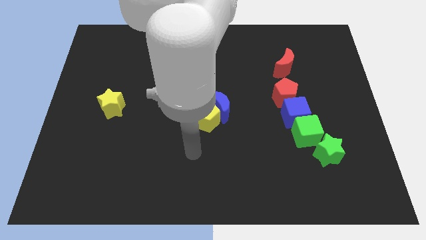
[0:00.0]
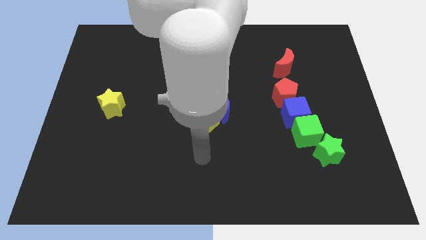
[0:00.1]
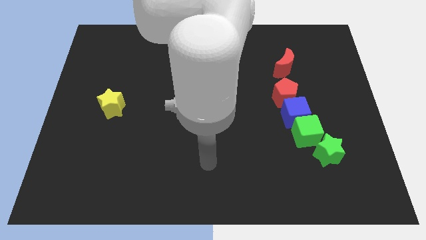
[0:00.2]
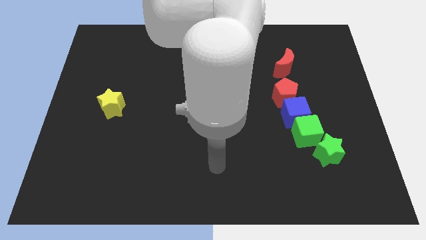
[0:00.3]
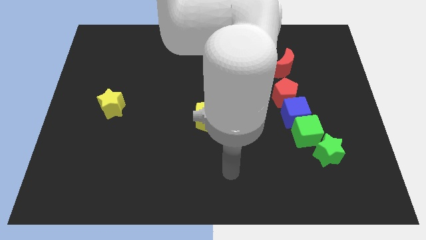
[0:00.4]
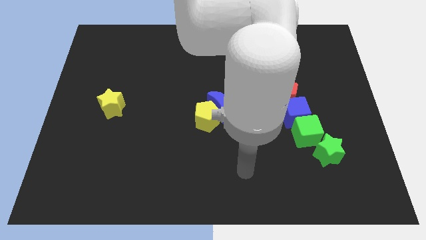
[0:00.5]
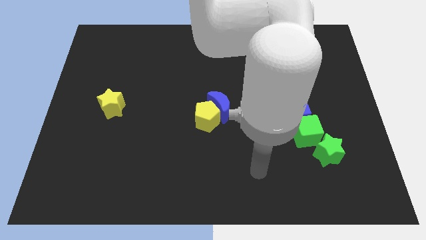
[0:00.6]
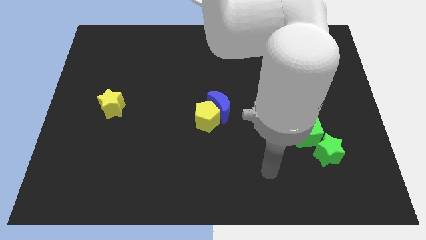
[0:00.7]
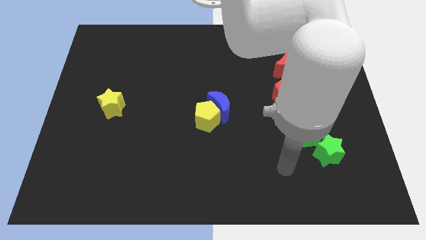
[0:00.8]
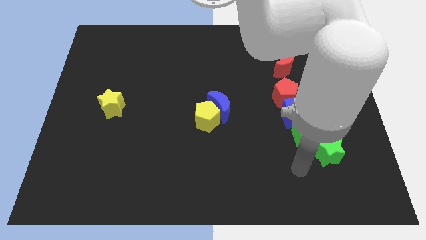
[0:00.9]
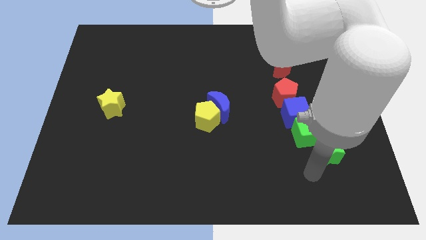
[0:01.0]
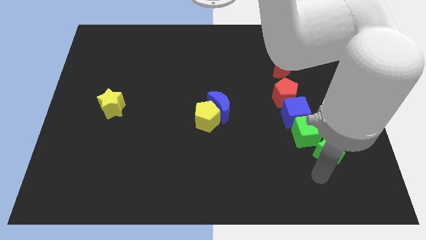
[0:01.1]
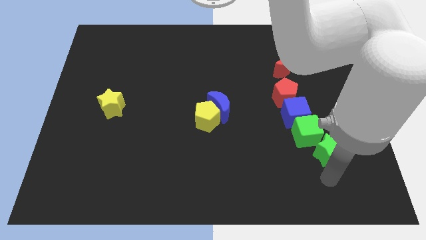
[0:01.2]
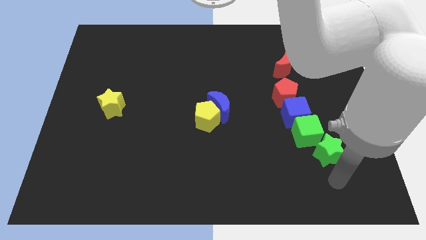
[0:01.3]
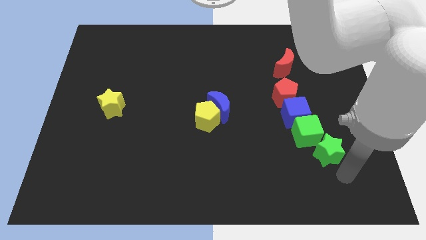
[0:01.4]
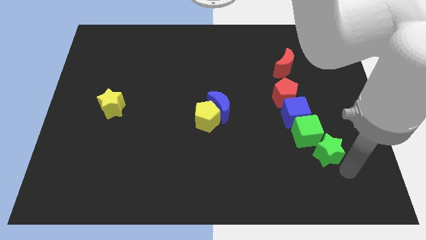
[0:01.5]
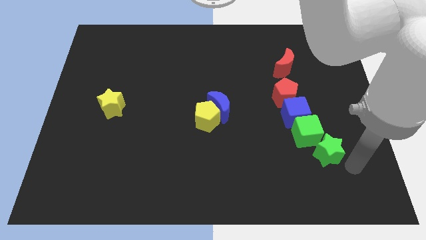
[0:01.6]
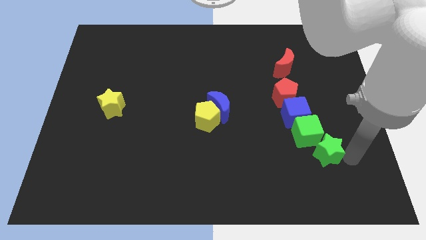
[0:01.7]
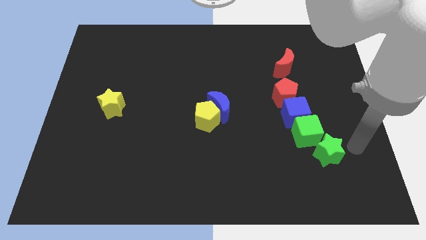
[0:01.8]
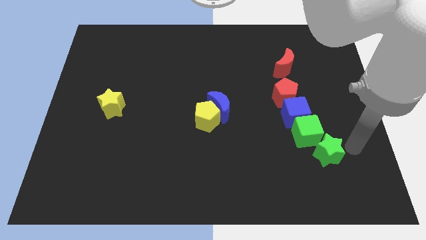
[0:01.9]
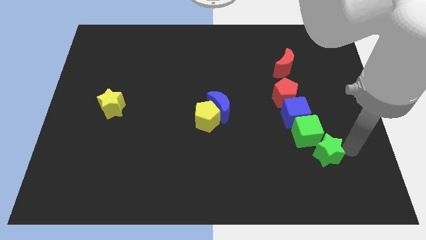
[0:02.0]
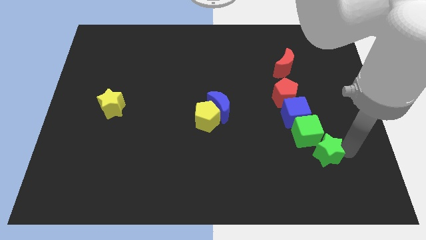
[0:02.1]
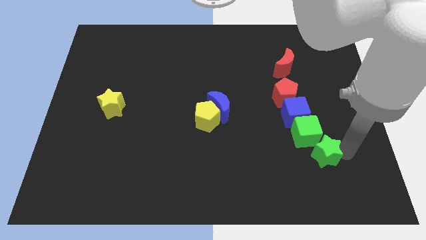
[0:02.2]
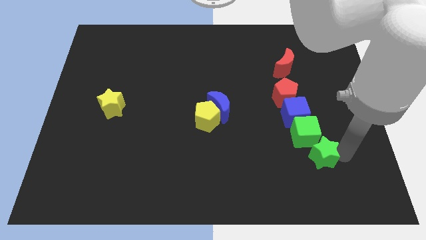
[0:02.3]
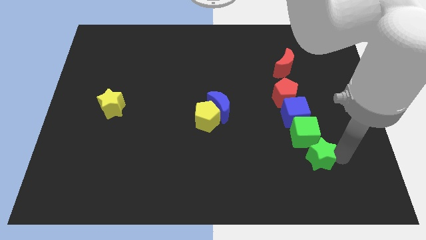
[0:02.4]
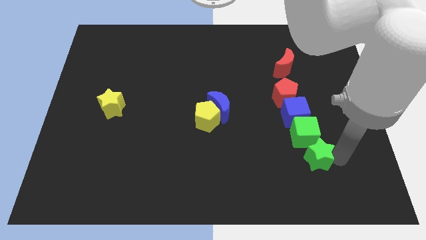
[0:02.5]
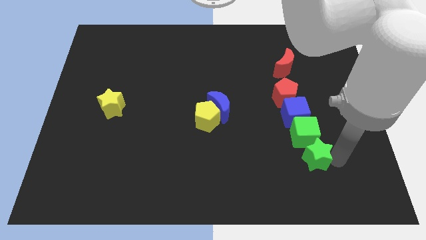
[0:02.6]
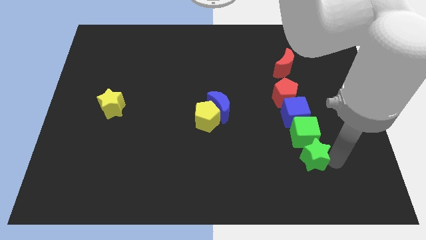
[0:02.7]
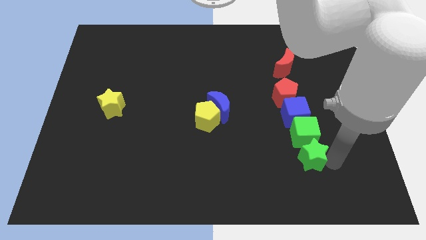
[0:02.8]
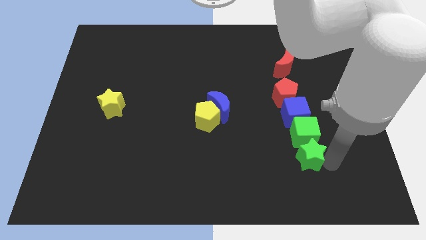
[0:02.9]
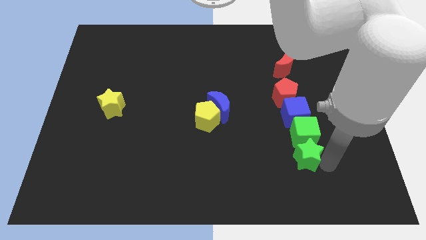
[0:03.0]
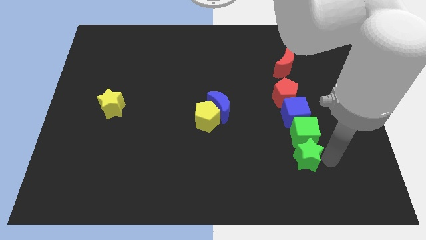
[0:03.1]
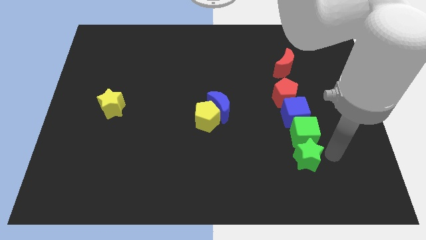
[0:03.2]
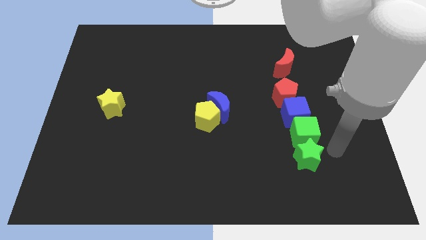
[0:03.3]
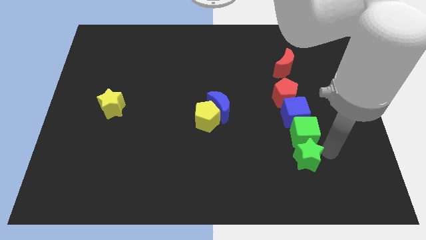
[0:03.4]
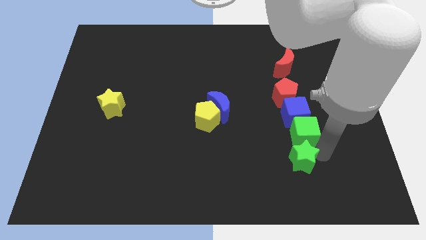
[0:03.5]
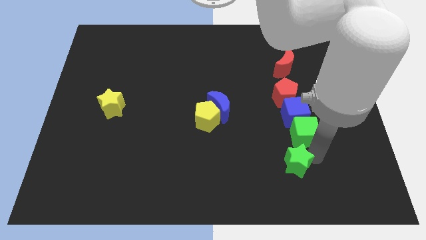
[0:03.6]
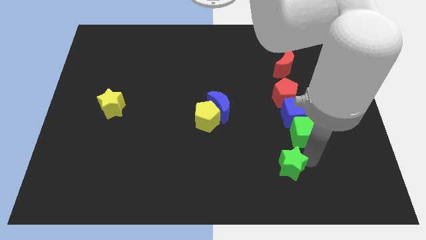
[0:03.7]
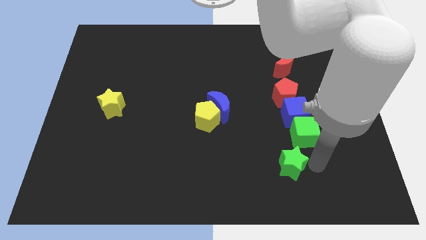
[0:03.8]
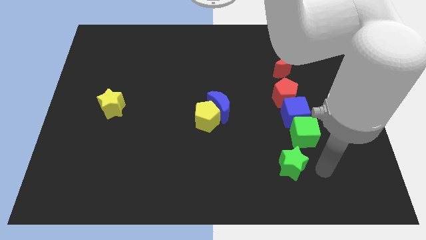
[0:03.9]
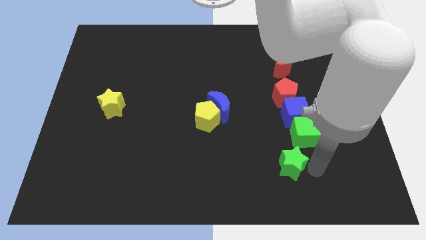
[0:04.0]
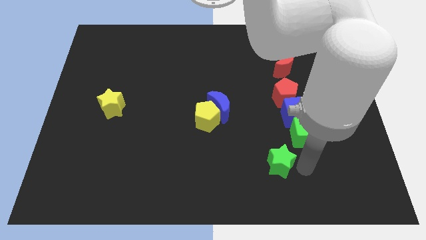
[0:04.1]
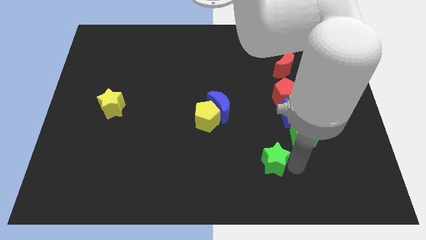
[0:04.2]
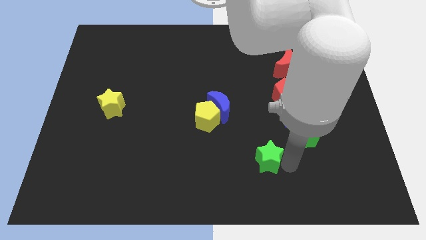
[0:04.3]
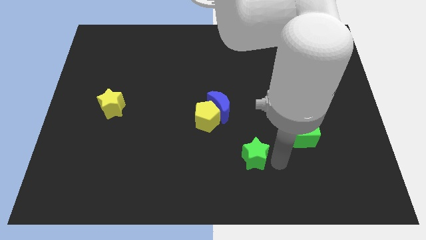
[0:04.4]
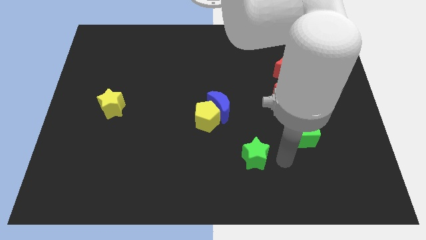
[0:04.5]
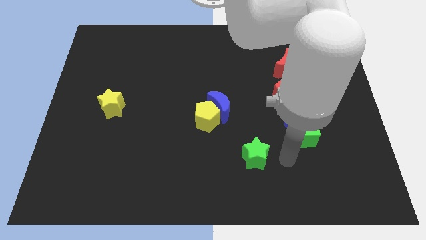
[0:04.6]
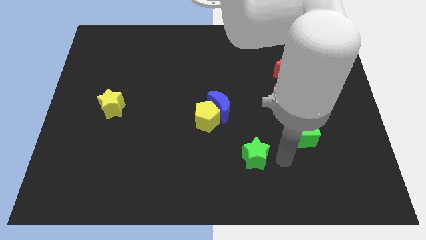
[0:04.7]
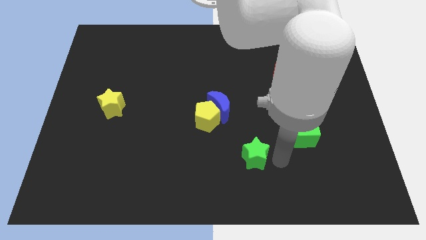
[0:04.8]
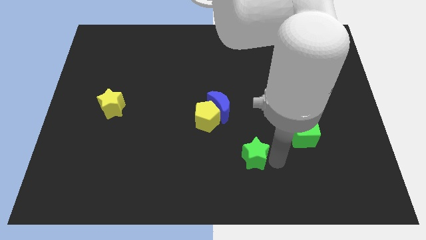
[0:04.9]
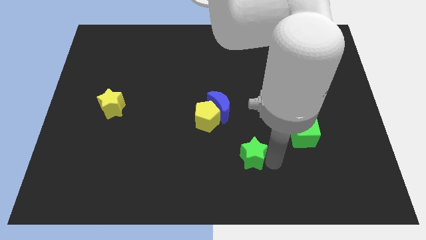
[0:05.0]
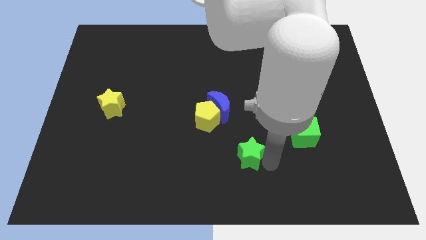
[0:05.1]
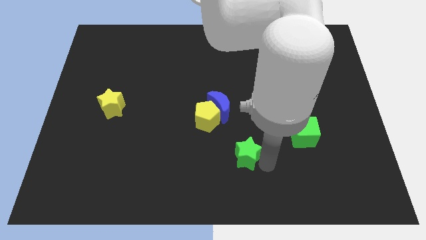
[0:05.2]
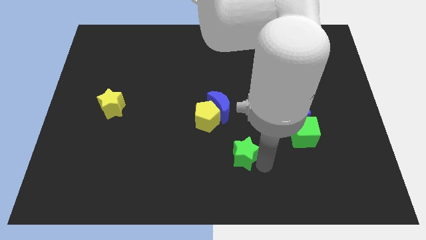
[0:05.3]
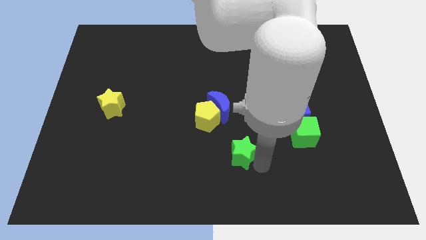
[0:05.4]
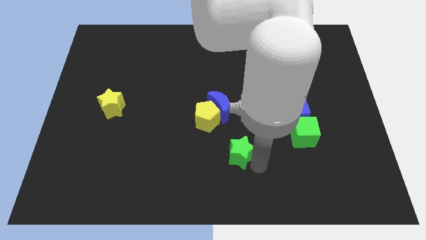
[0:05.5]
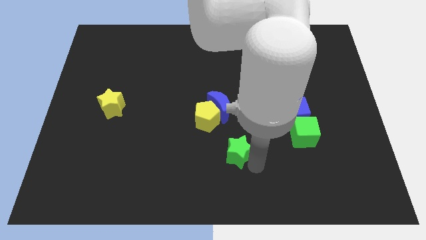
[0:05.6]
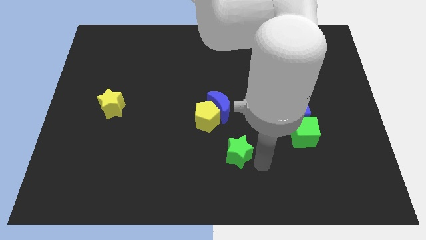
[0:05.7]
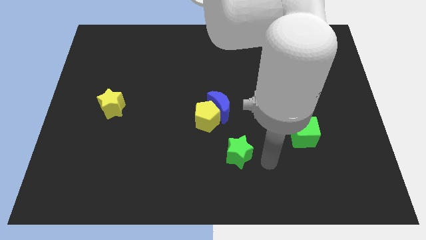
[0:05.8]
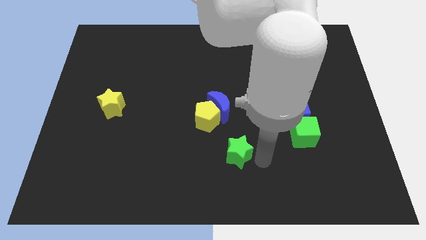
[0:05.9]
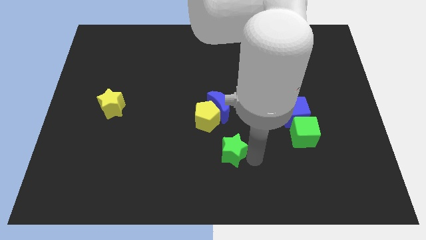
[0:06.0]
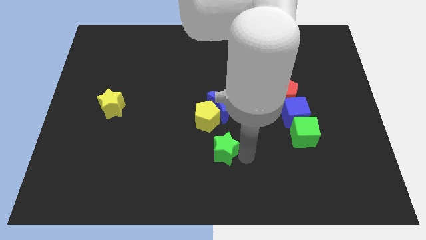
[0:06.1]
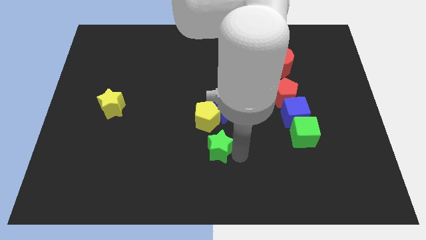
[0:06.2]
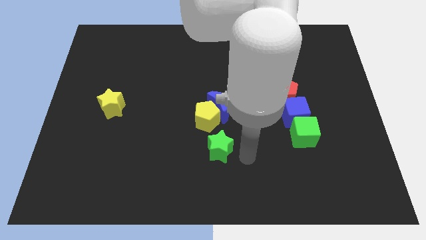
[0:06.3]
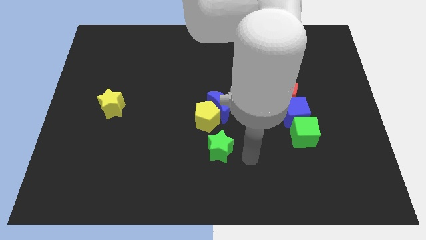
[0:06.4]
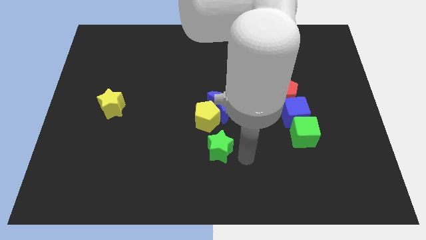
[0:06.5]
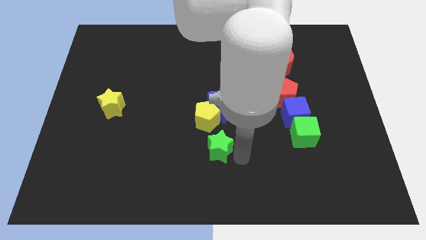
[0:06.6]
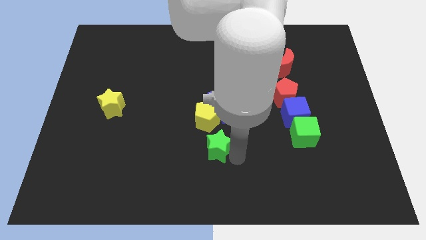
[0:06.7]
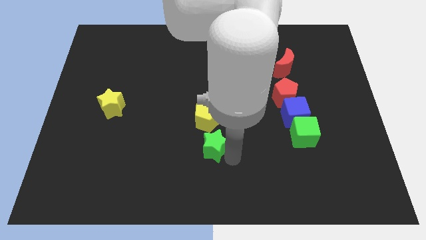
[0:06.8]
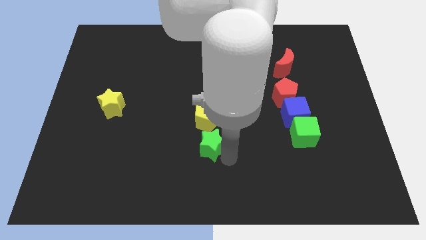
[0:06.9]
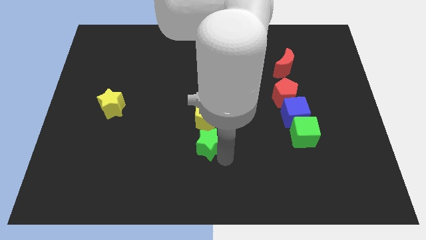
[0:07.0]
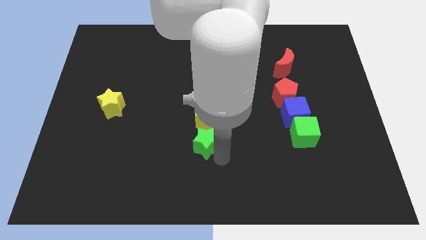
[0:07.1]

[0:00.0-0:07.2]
push the green star to the bottom left side of the yellow pentagon

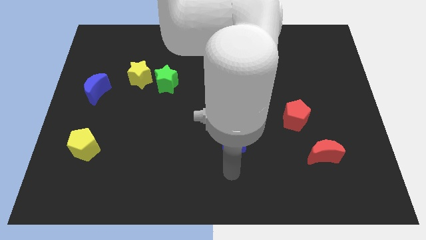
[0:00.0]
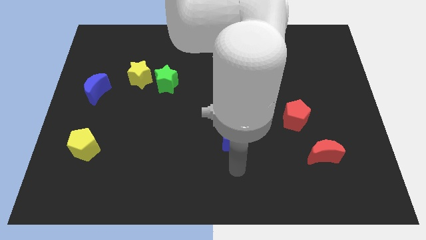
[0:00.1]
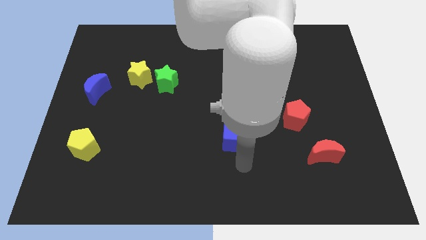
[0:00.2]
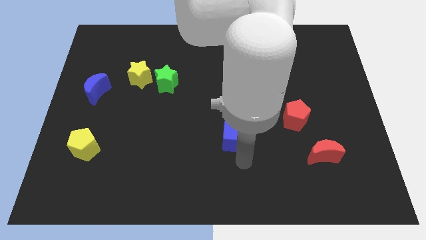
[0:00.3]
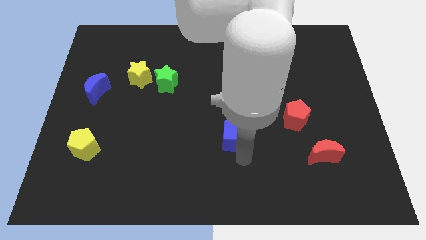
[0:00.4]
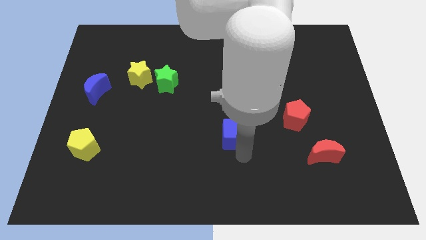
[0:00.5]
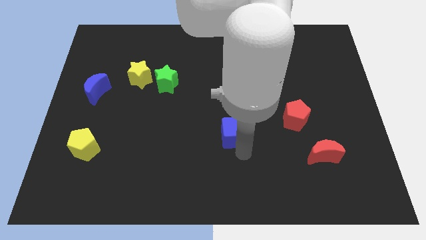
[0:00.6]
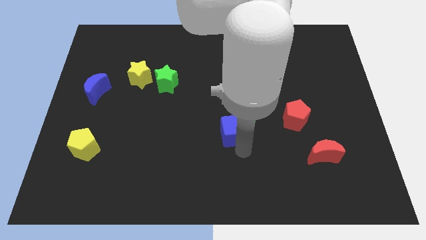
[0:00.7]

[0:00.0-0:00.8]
move the blue cube to the left of the red pentagon
